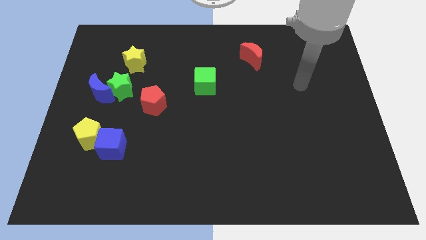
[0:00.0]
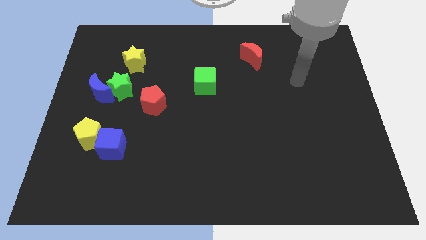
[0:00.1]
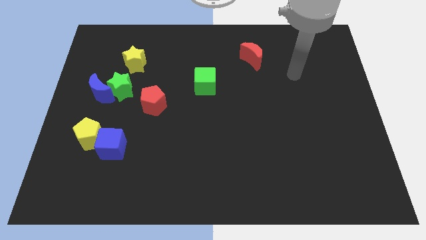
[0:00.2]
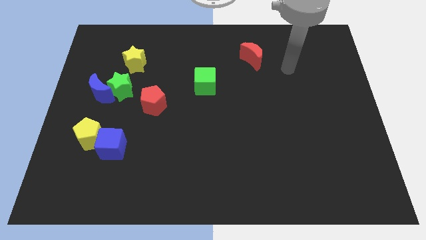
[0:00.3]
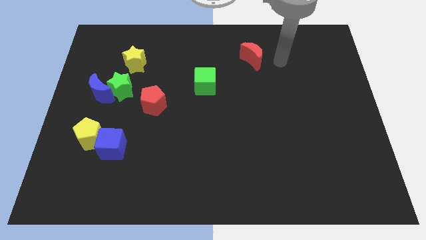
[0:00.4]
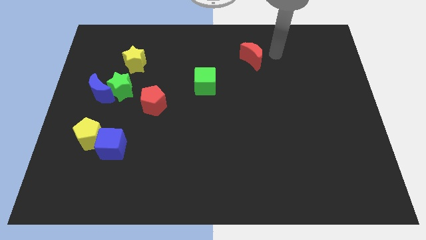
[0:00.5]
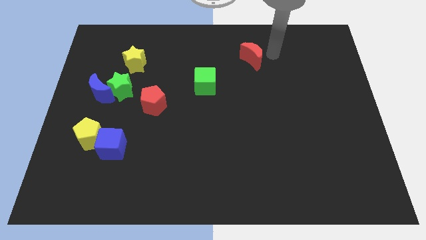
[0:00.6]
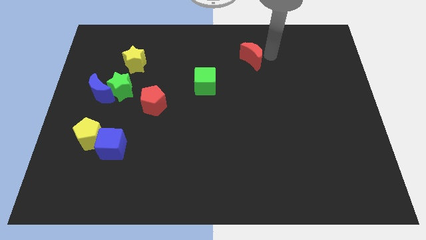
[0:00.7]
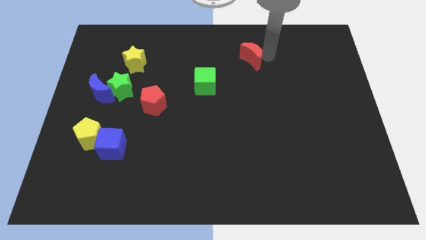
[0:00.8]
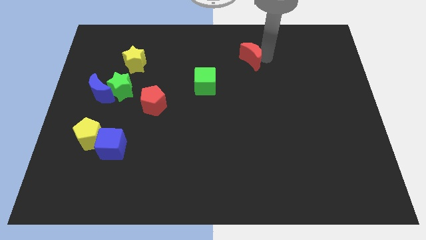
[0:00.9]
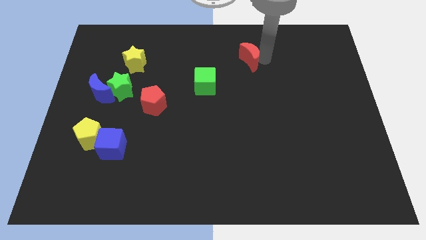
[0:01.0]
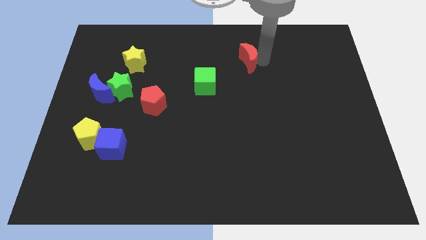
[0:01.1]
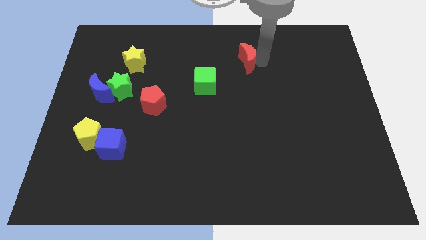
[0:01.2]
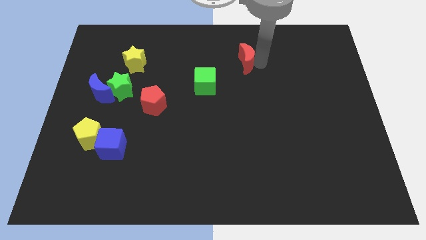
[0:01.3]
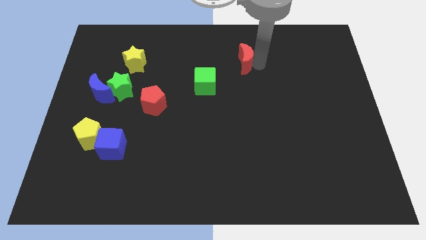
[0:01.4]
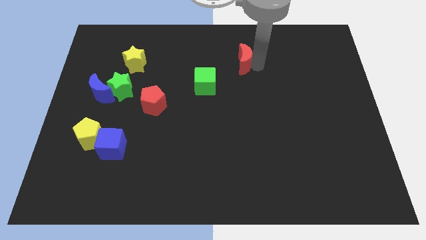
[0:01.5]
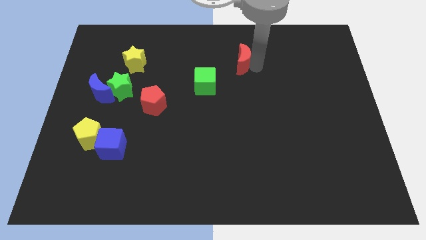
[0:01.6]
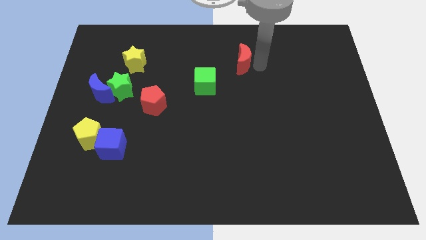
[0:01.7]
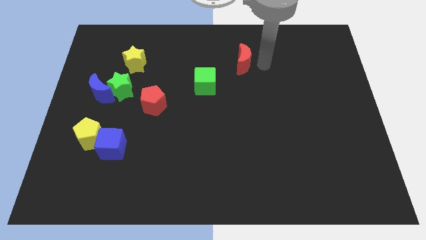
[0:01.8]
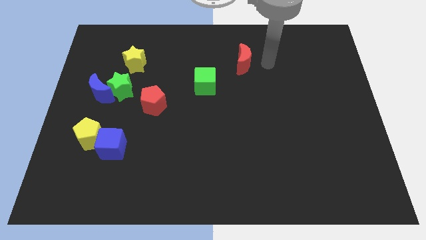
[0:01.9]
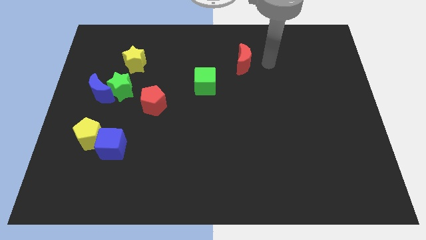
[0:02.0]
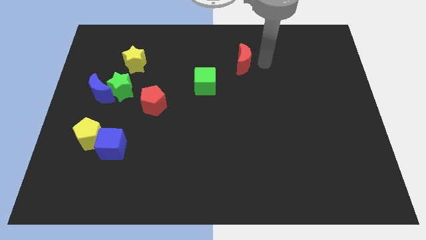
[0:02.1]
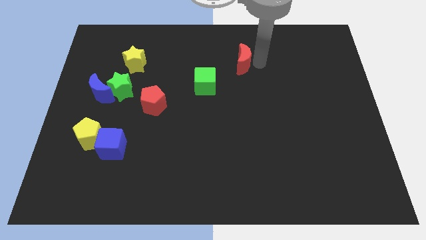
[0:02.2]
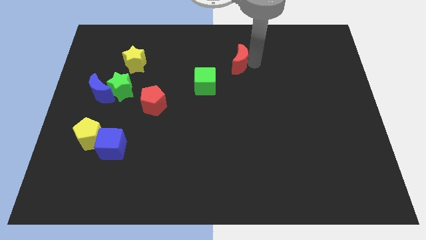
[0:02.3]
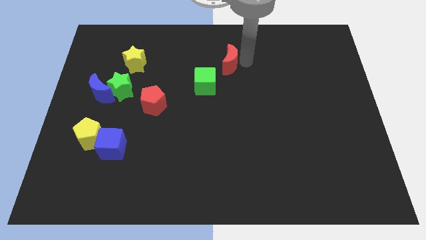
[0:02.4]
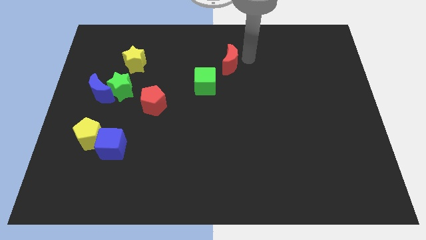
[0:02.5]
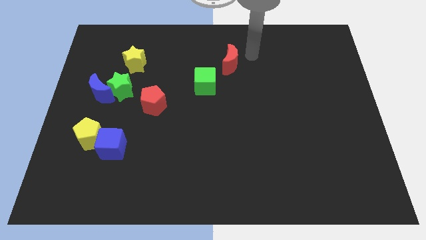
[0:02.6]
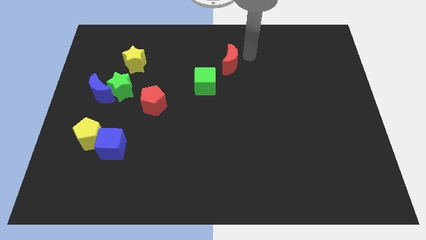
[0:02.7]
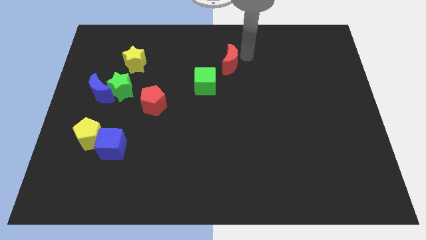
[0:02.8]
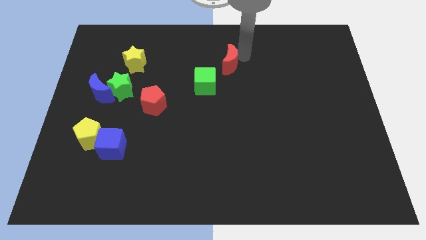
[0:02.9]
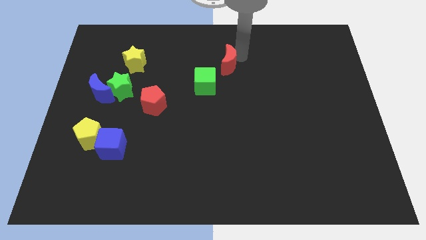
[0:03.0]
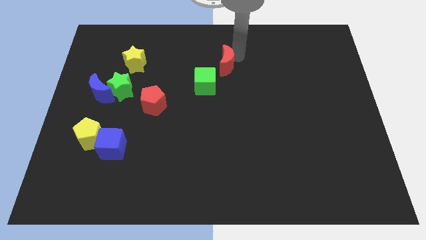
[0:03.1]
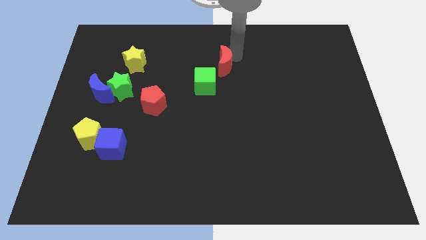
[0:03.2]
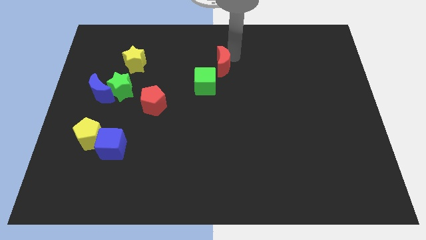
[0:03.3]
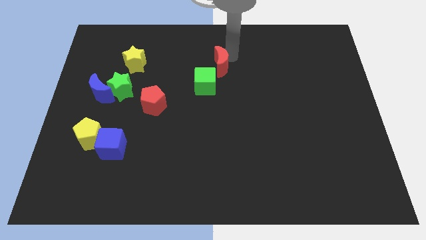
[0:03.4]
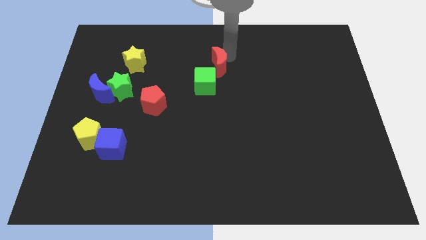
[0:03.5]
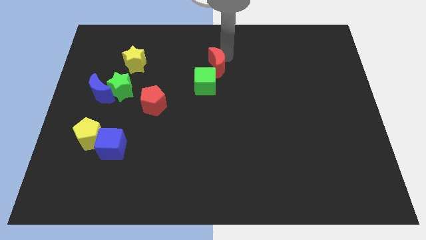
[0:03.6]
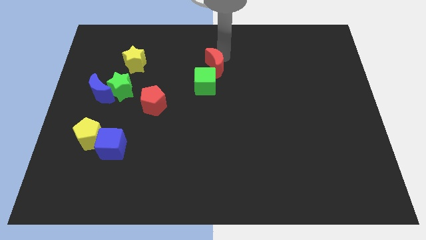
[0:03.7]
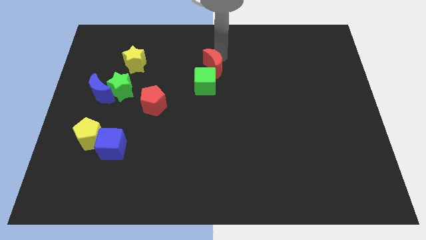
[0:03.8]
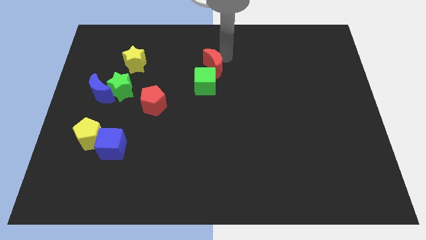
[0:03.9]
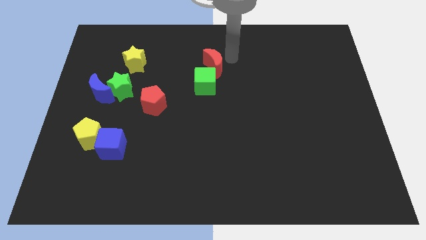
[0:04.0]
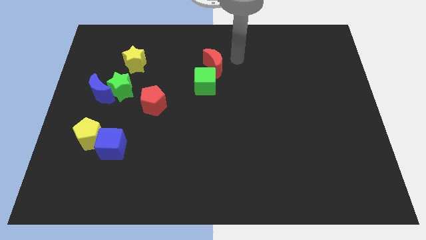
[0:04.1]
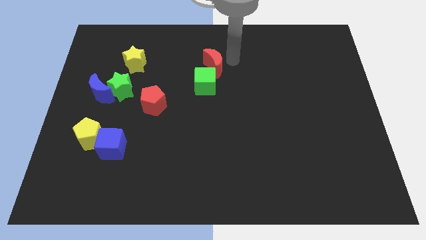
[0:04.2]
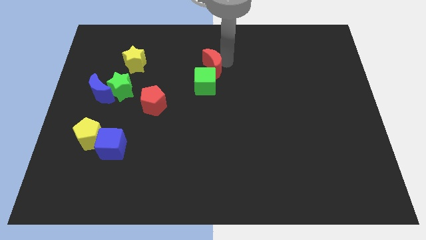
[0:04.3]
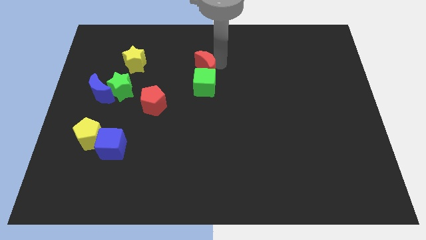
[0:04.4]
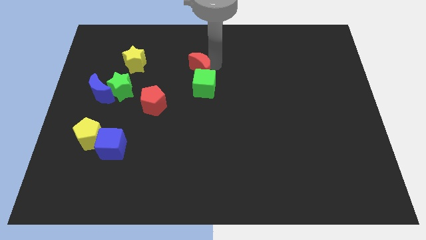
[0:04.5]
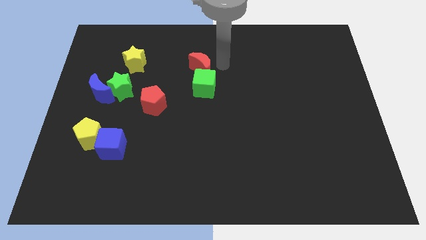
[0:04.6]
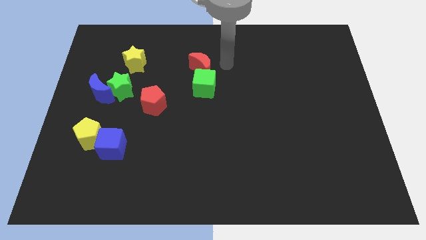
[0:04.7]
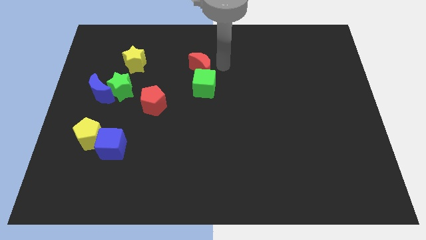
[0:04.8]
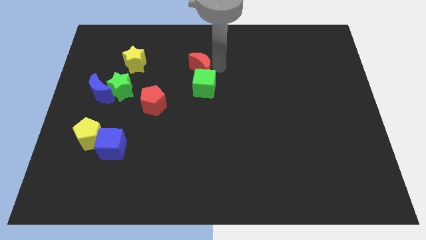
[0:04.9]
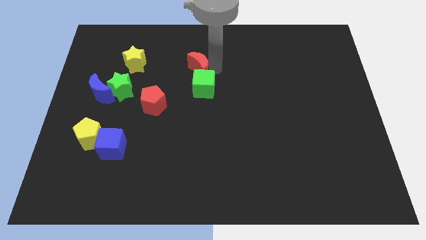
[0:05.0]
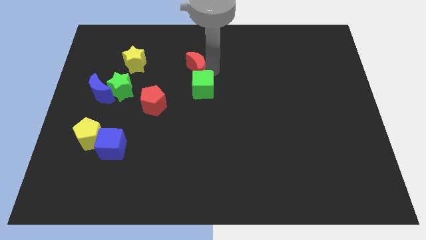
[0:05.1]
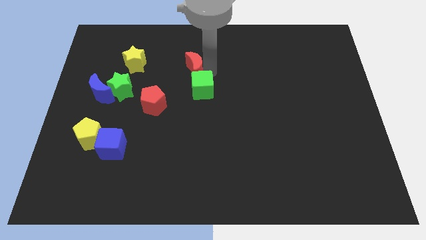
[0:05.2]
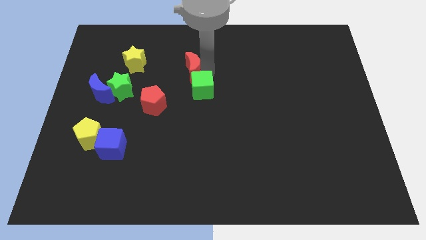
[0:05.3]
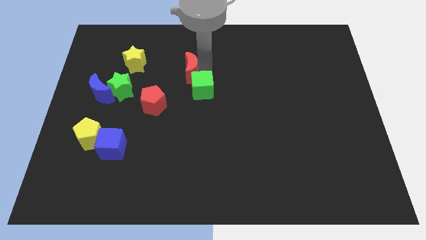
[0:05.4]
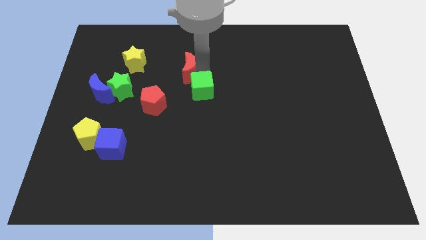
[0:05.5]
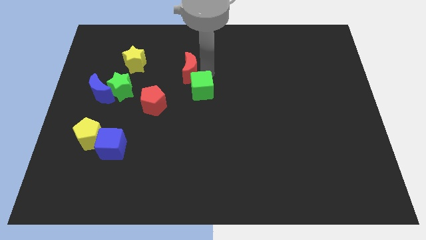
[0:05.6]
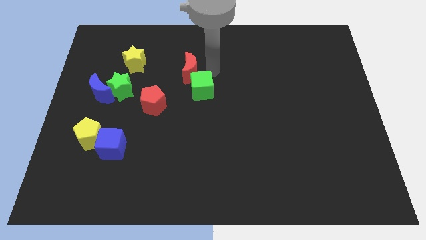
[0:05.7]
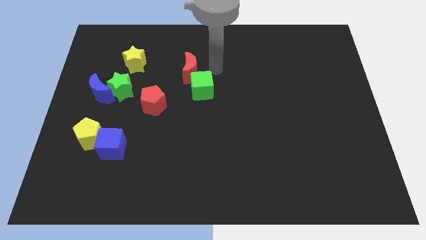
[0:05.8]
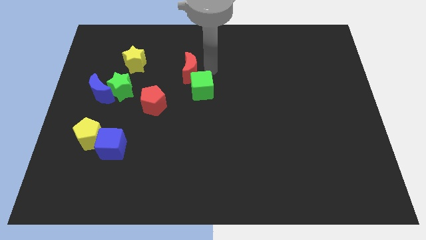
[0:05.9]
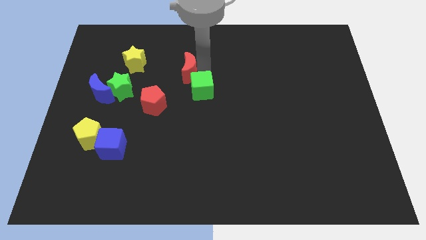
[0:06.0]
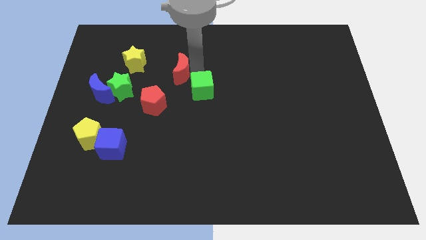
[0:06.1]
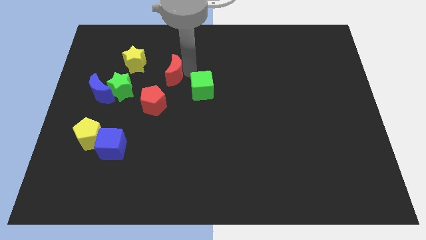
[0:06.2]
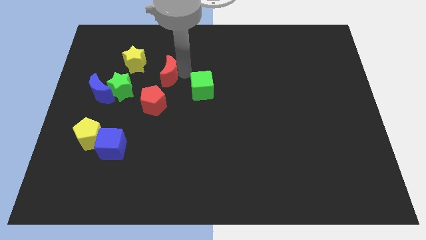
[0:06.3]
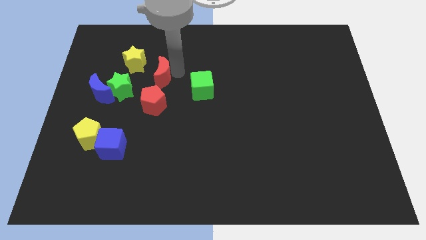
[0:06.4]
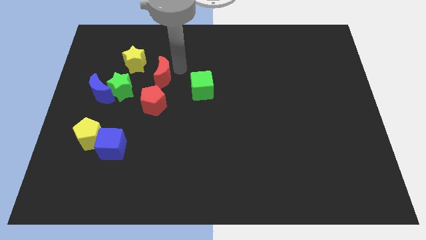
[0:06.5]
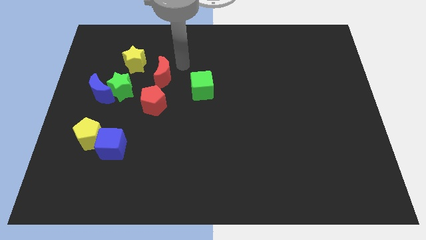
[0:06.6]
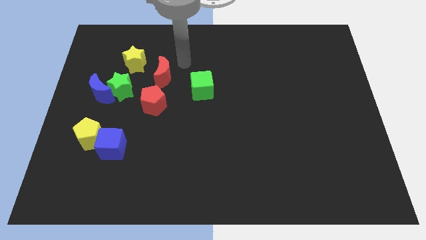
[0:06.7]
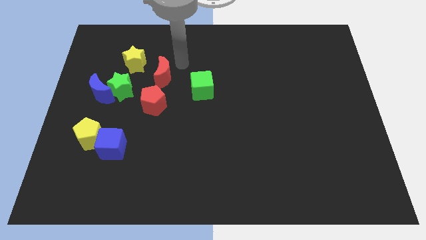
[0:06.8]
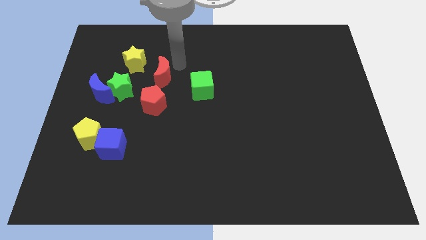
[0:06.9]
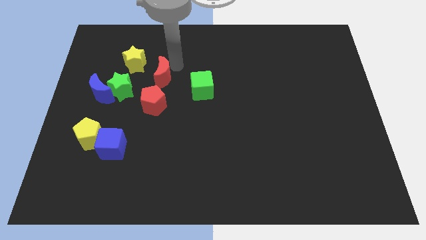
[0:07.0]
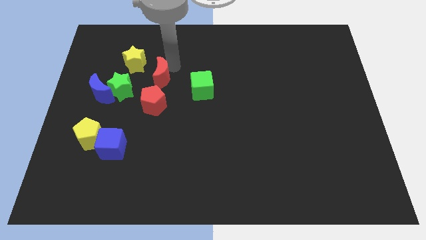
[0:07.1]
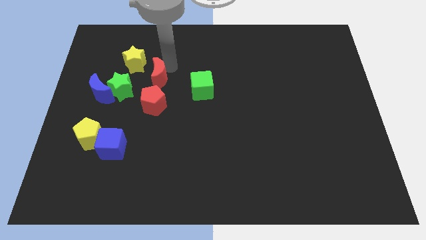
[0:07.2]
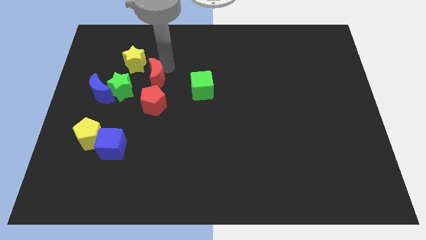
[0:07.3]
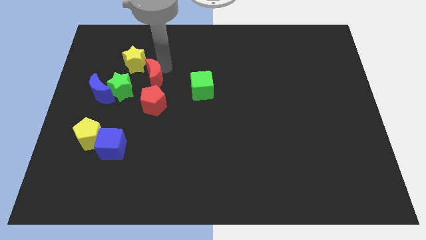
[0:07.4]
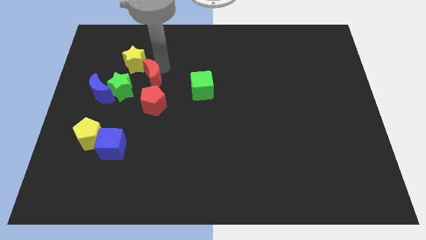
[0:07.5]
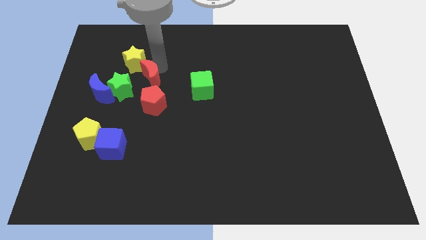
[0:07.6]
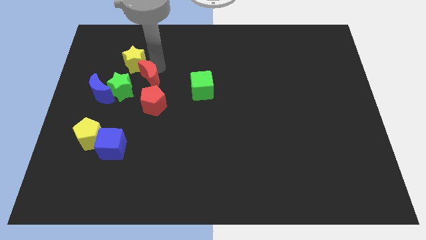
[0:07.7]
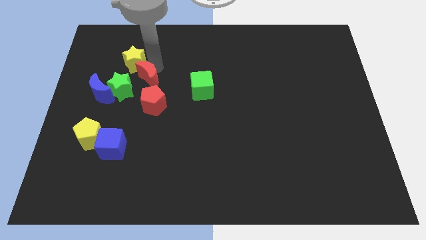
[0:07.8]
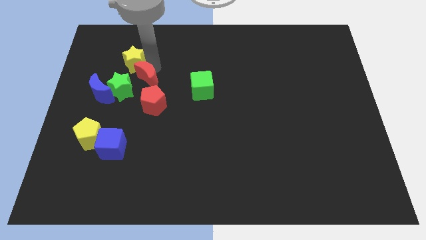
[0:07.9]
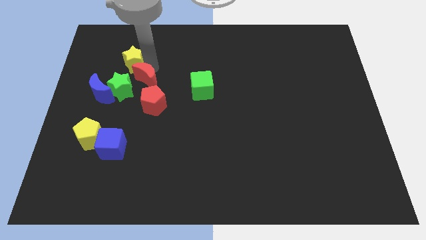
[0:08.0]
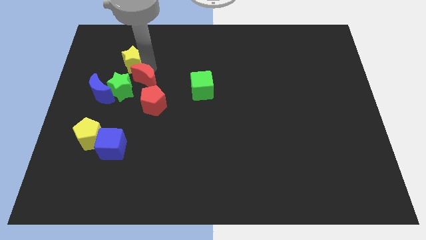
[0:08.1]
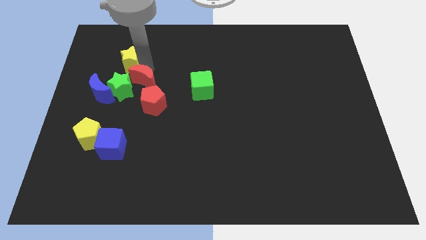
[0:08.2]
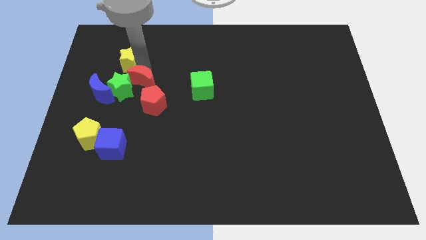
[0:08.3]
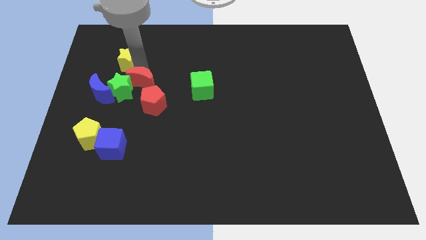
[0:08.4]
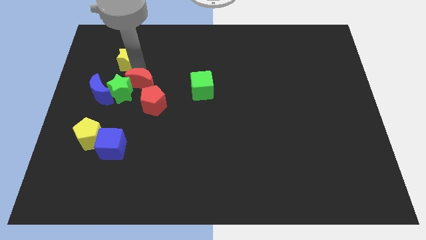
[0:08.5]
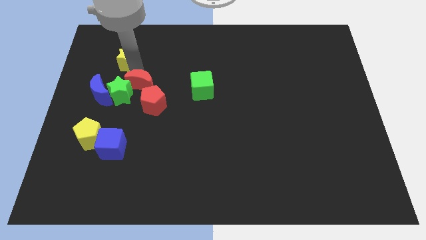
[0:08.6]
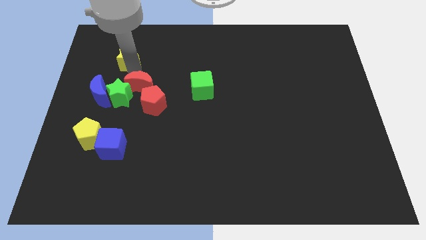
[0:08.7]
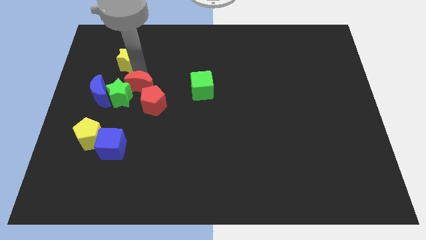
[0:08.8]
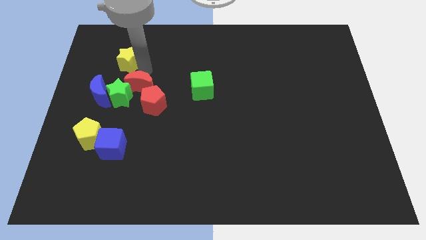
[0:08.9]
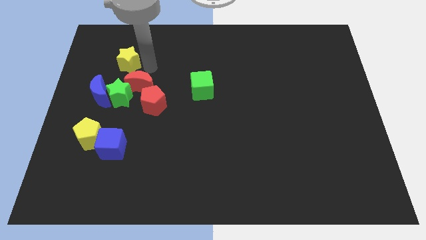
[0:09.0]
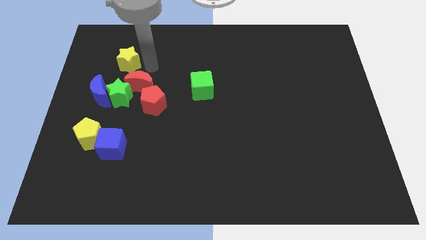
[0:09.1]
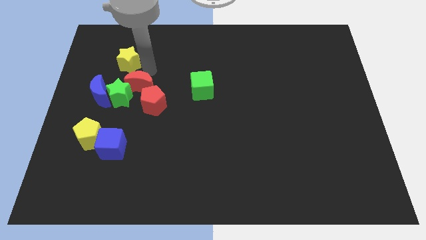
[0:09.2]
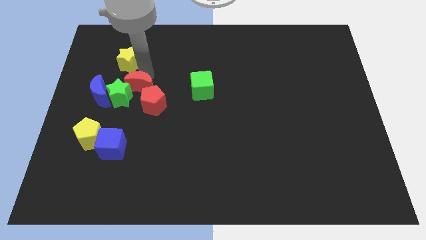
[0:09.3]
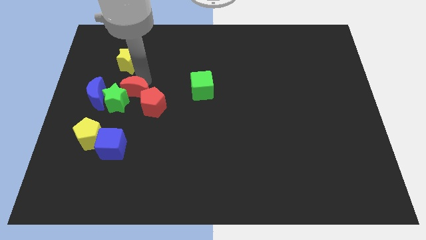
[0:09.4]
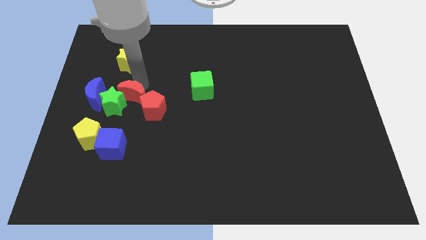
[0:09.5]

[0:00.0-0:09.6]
slide the red moon to the top of the blue cube
